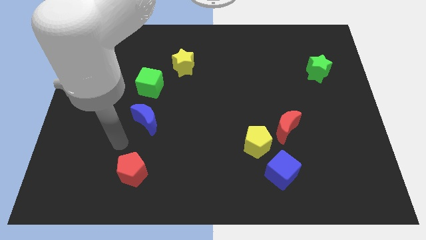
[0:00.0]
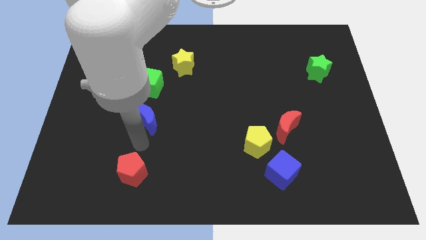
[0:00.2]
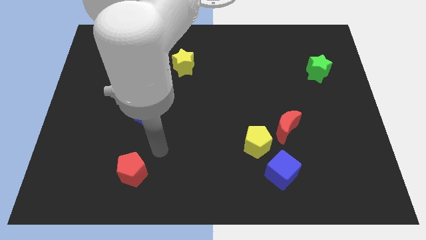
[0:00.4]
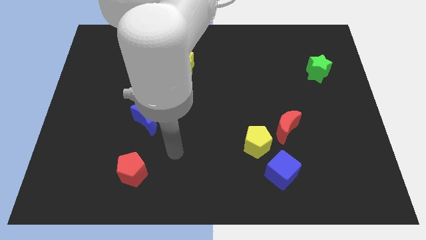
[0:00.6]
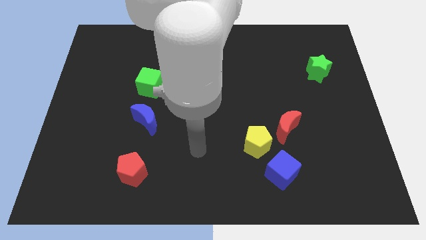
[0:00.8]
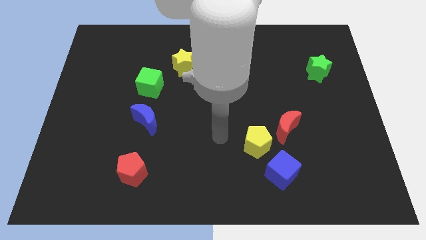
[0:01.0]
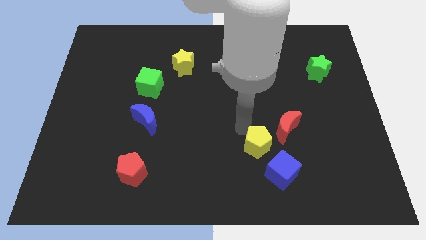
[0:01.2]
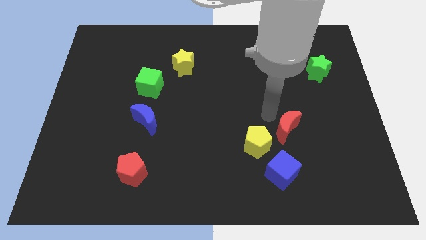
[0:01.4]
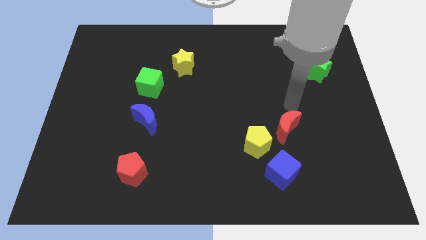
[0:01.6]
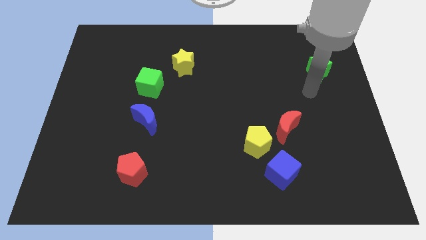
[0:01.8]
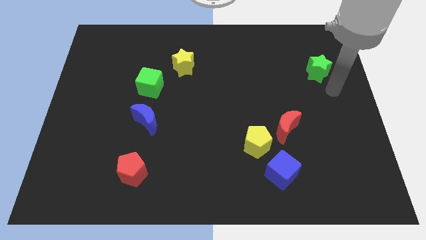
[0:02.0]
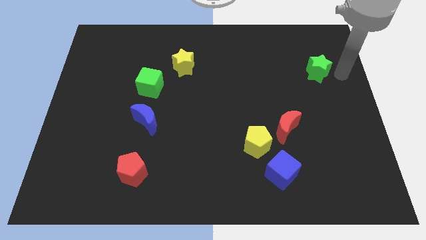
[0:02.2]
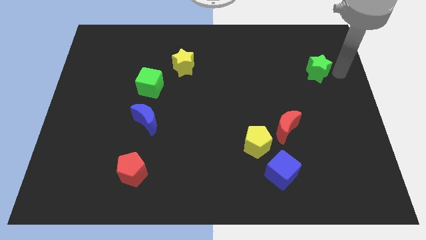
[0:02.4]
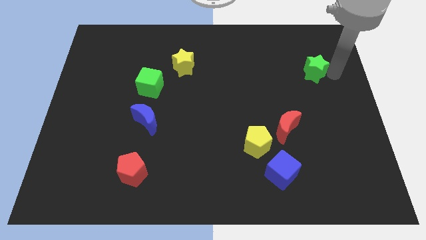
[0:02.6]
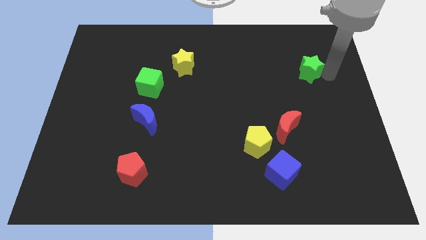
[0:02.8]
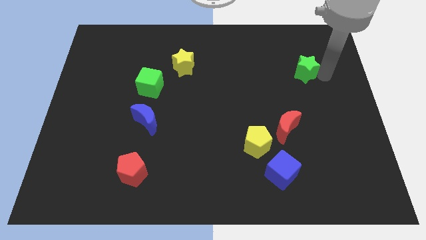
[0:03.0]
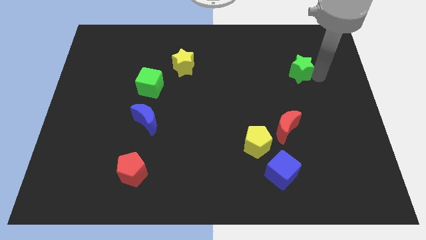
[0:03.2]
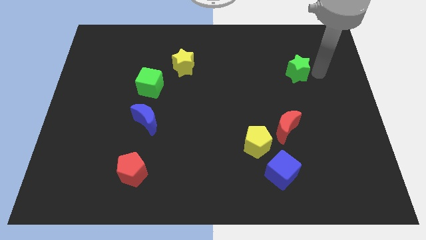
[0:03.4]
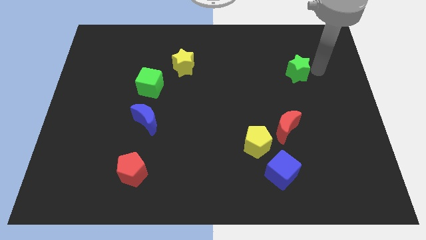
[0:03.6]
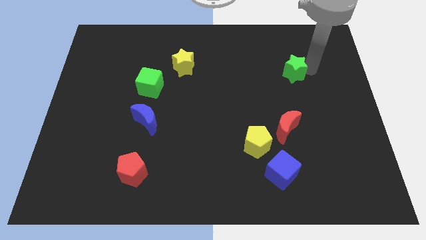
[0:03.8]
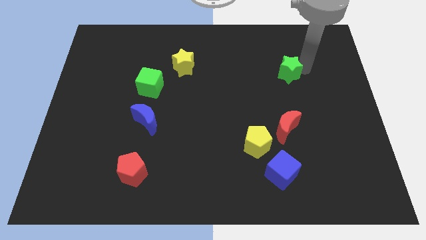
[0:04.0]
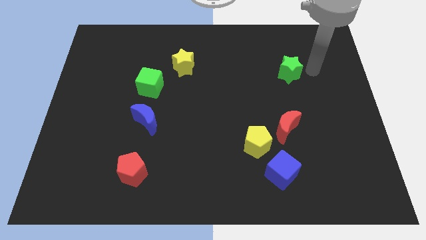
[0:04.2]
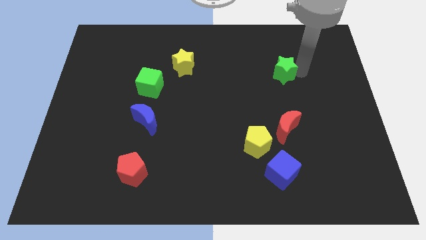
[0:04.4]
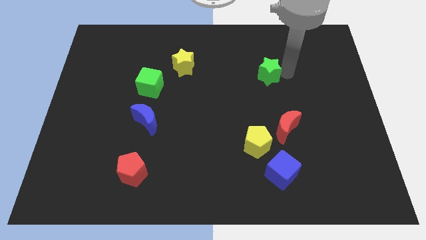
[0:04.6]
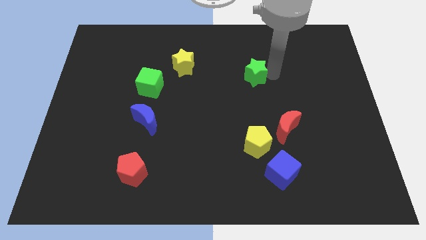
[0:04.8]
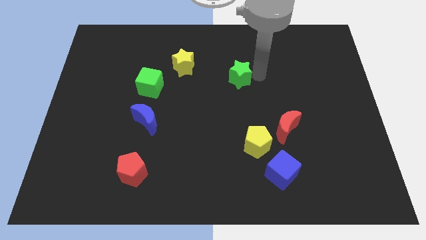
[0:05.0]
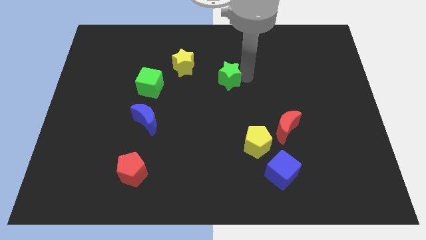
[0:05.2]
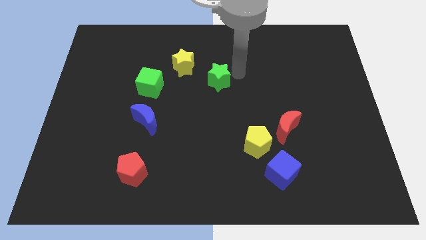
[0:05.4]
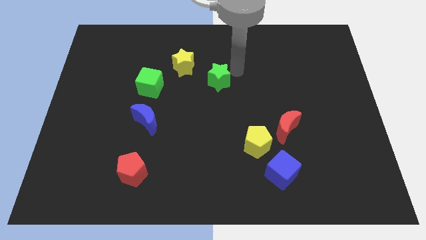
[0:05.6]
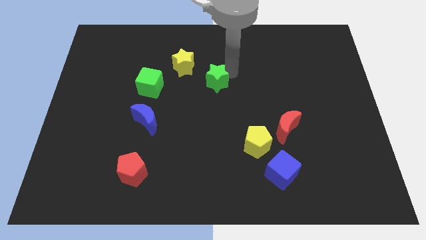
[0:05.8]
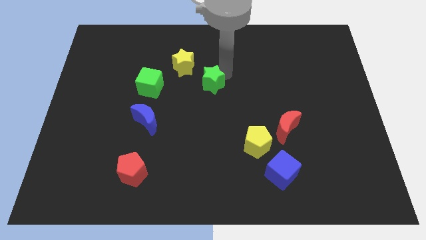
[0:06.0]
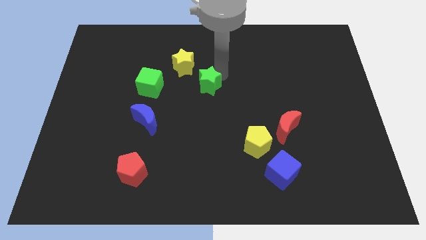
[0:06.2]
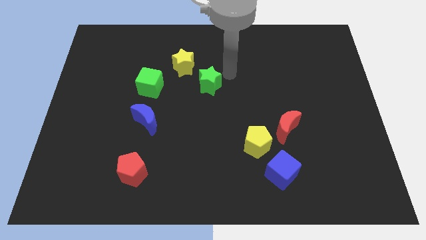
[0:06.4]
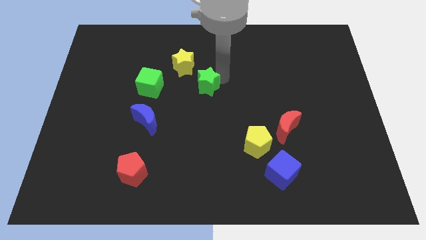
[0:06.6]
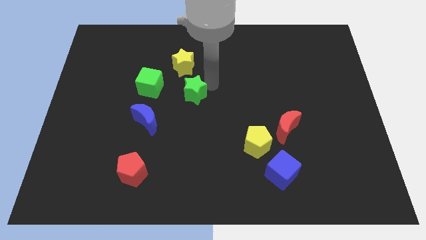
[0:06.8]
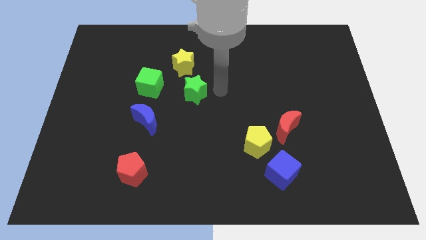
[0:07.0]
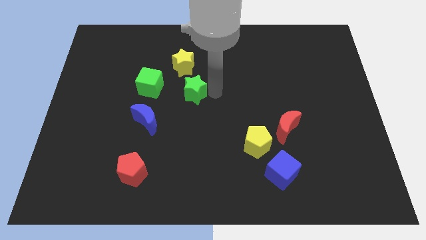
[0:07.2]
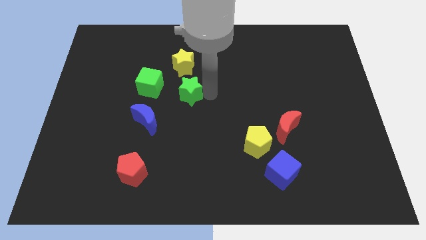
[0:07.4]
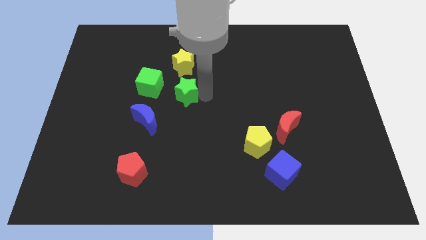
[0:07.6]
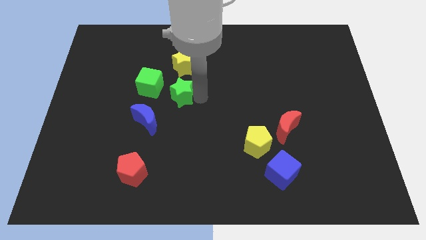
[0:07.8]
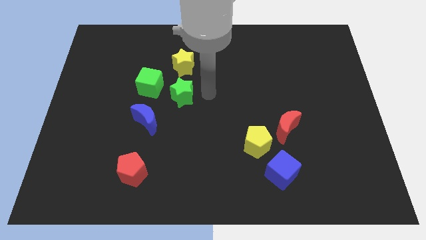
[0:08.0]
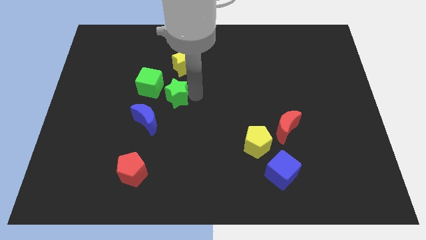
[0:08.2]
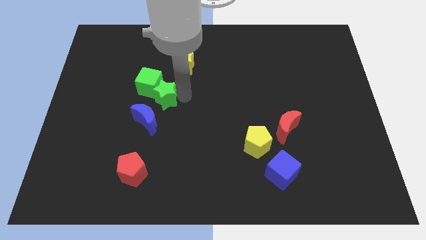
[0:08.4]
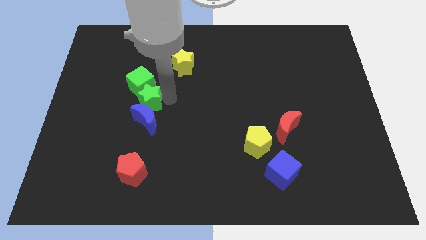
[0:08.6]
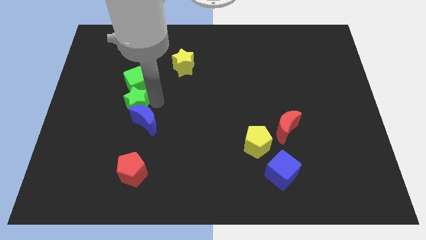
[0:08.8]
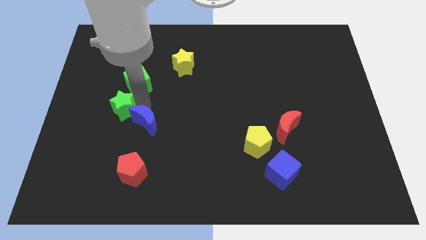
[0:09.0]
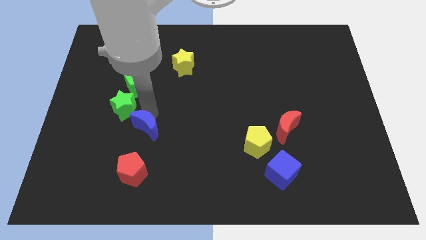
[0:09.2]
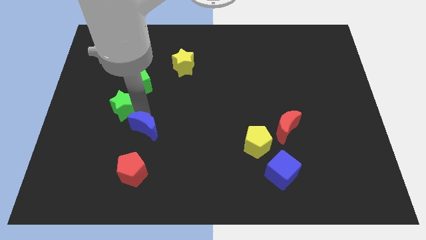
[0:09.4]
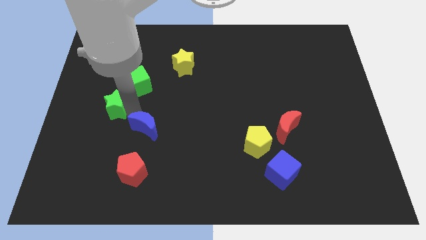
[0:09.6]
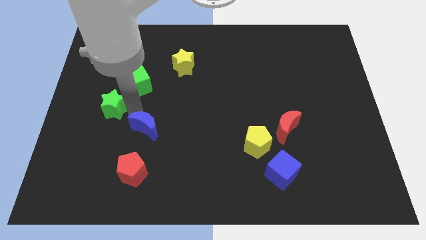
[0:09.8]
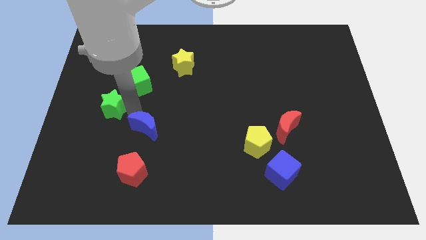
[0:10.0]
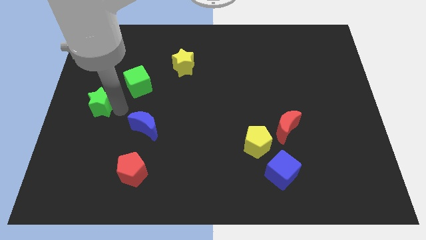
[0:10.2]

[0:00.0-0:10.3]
push the green star to the left side of the board

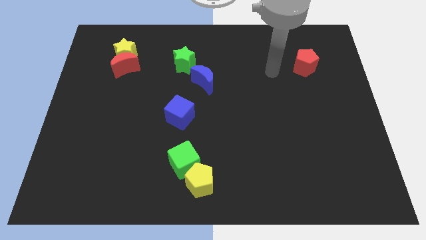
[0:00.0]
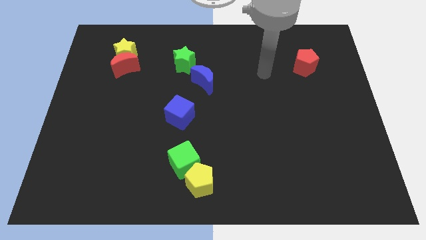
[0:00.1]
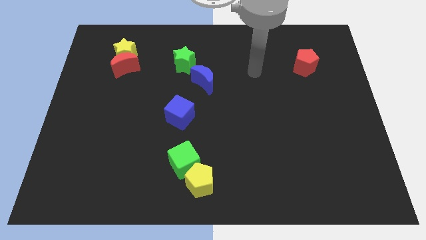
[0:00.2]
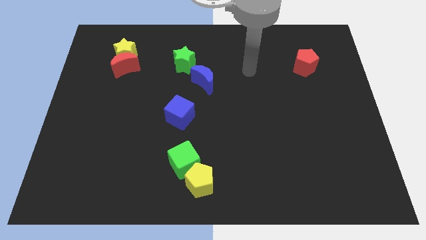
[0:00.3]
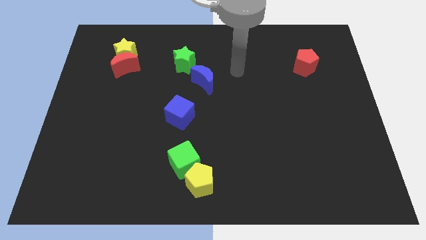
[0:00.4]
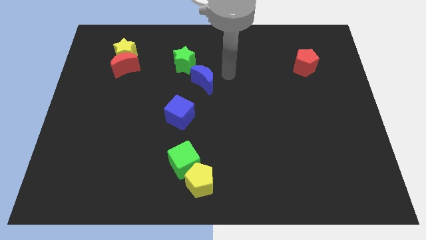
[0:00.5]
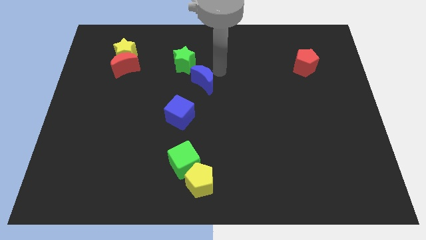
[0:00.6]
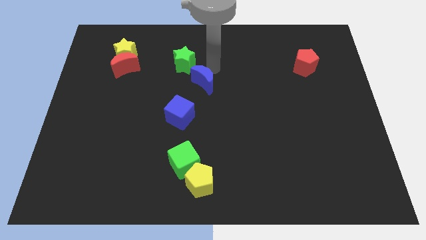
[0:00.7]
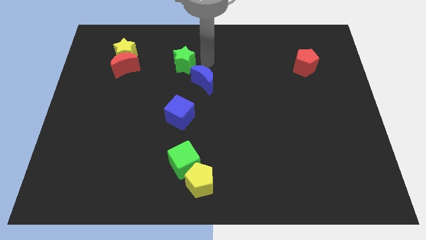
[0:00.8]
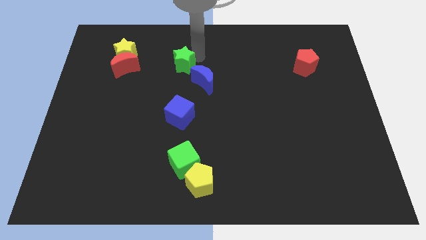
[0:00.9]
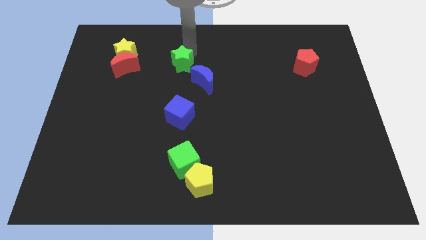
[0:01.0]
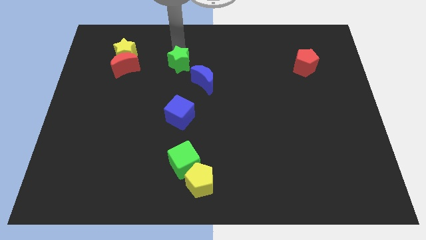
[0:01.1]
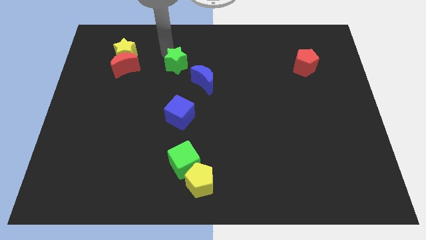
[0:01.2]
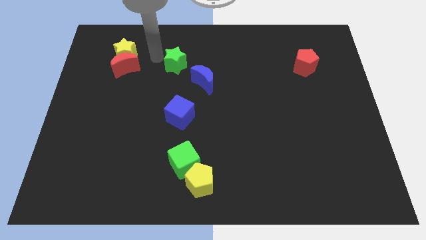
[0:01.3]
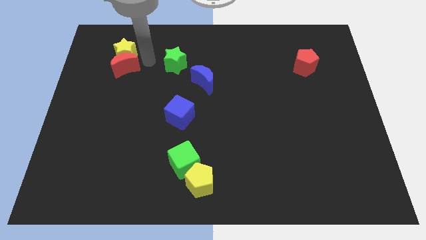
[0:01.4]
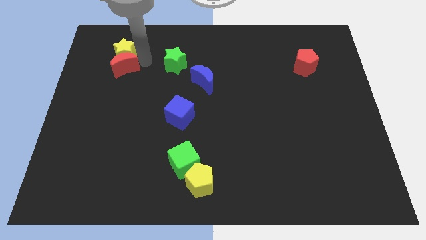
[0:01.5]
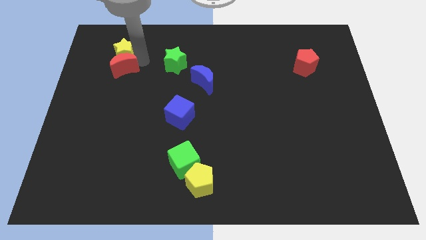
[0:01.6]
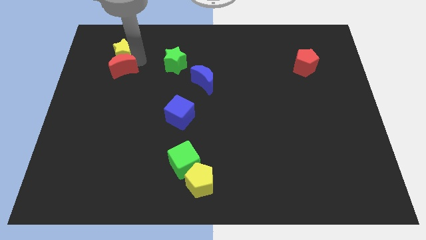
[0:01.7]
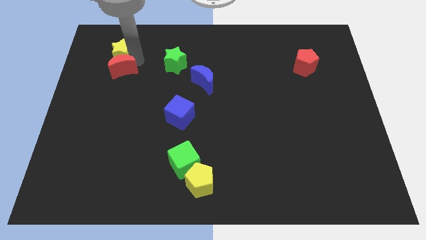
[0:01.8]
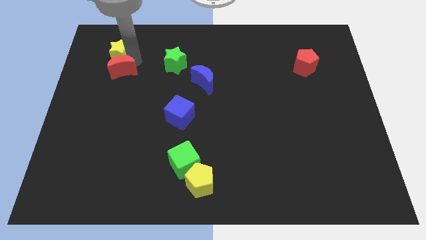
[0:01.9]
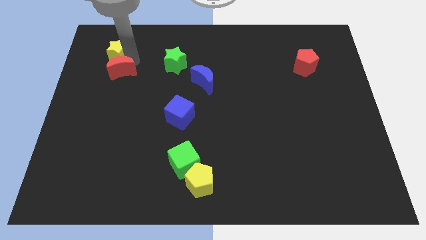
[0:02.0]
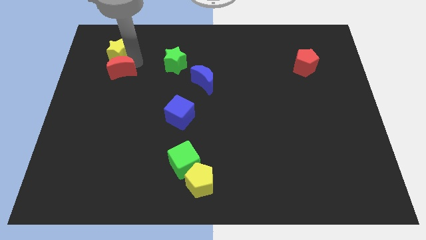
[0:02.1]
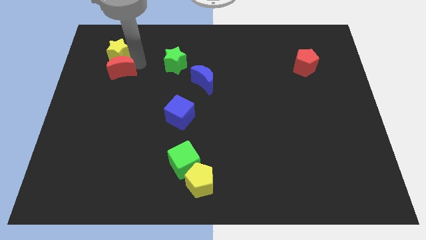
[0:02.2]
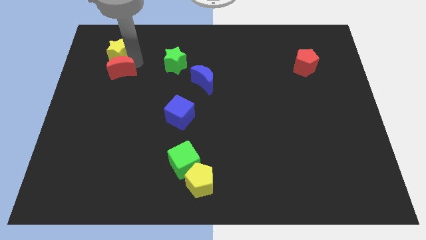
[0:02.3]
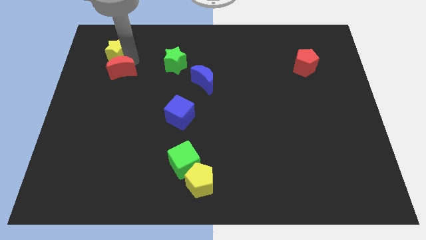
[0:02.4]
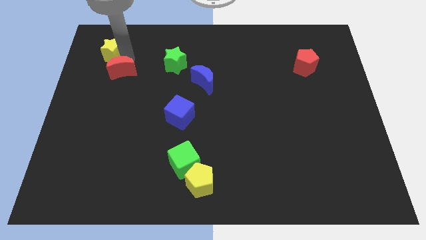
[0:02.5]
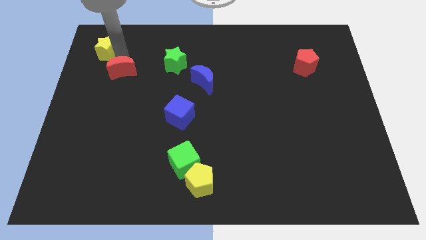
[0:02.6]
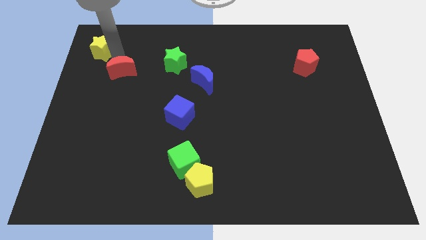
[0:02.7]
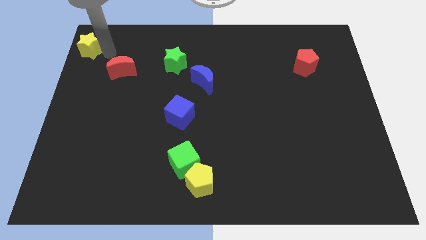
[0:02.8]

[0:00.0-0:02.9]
push the yellow star to the top left
